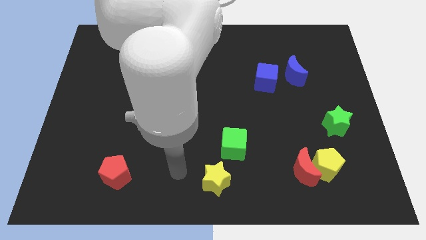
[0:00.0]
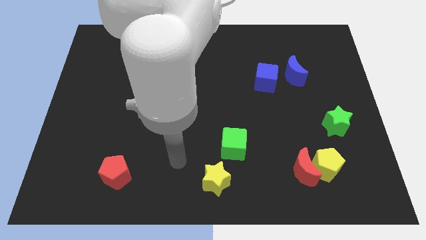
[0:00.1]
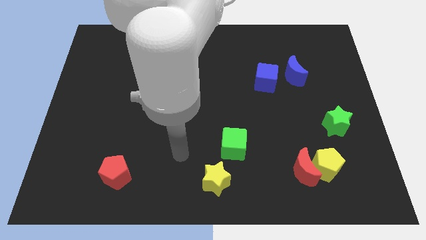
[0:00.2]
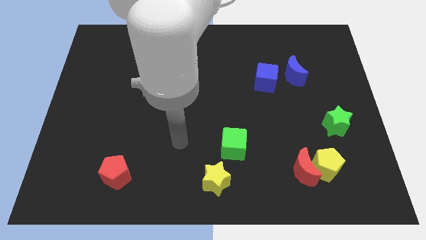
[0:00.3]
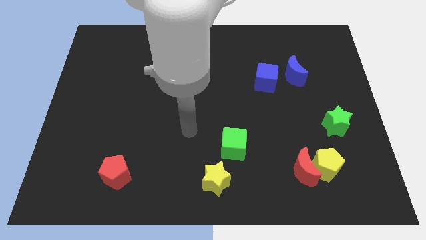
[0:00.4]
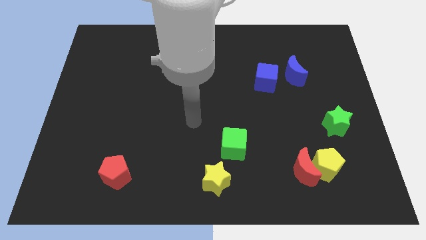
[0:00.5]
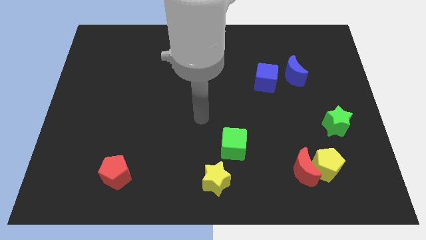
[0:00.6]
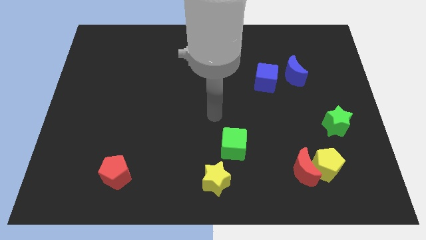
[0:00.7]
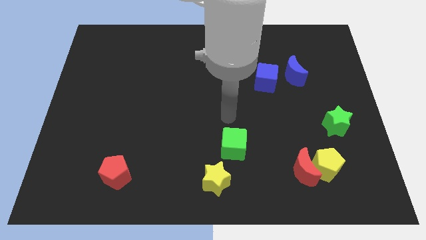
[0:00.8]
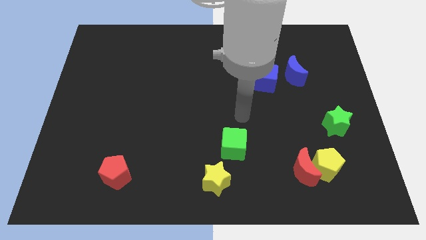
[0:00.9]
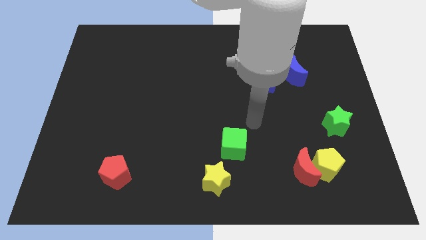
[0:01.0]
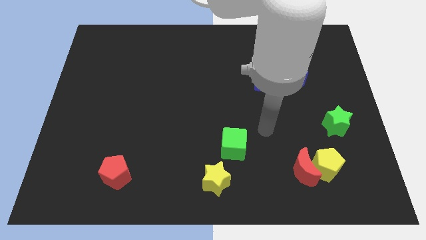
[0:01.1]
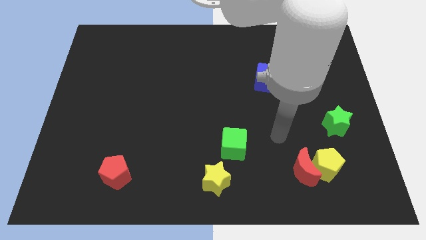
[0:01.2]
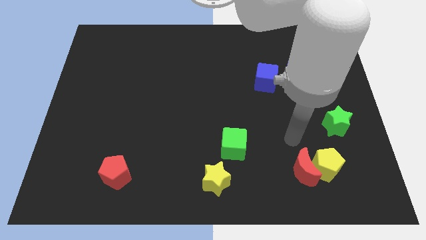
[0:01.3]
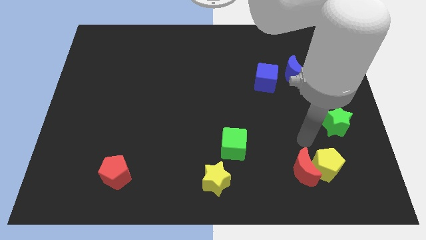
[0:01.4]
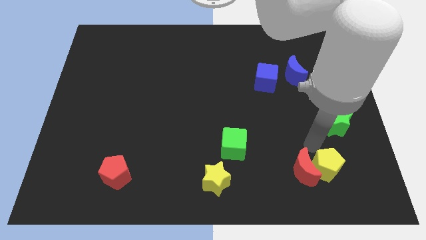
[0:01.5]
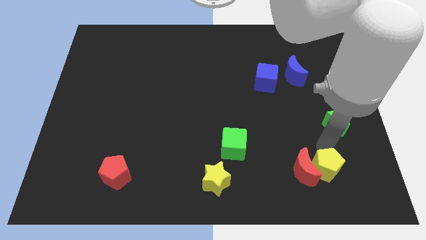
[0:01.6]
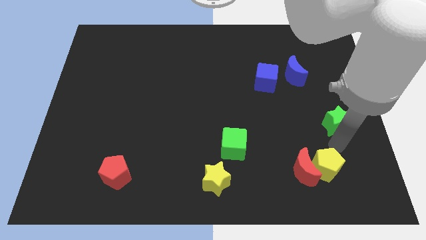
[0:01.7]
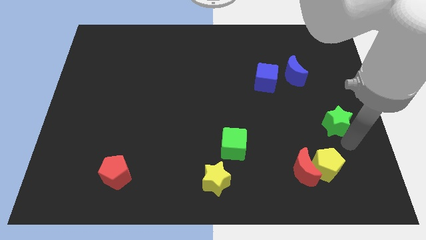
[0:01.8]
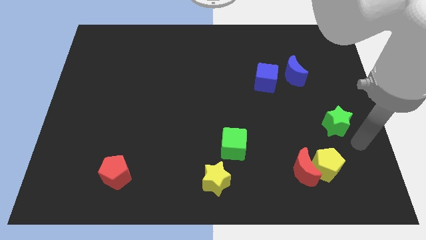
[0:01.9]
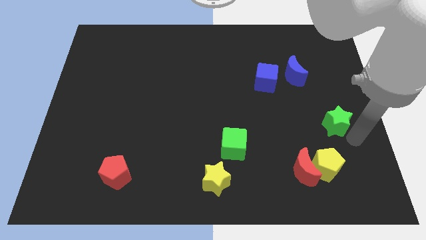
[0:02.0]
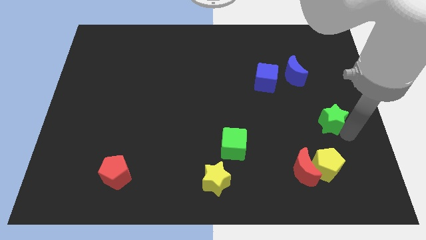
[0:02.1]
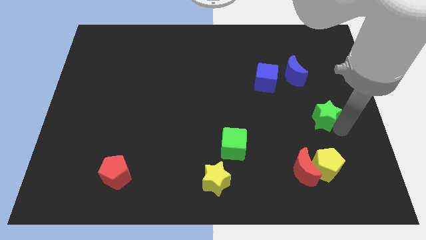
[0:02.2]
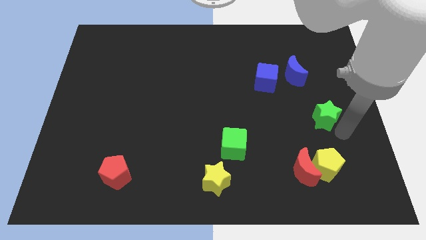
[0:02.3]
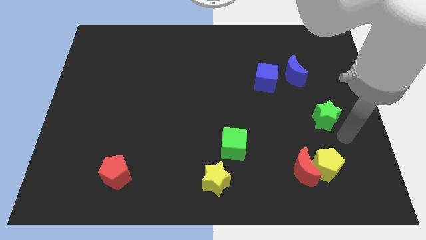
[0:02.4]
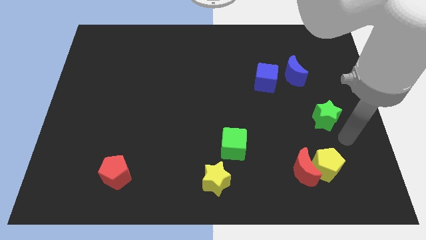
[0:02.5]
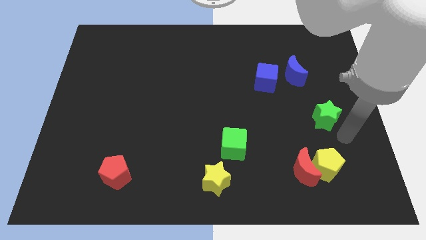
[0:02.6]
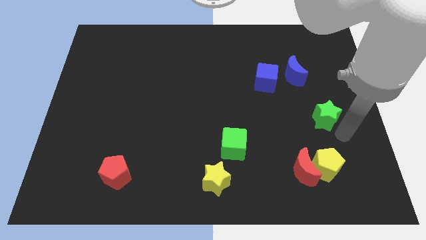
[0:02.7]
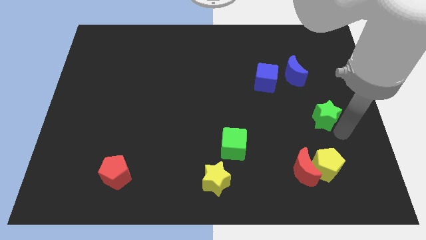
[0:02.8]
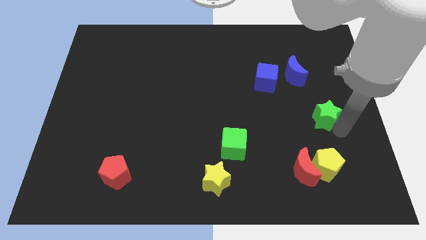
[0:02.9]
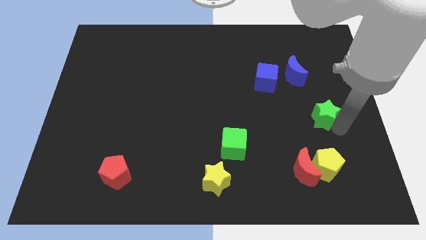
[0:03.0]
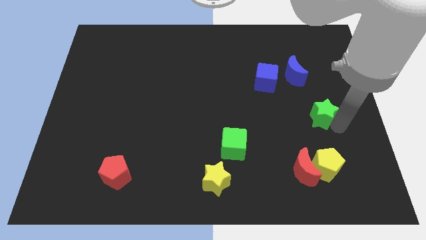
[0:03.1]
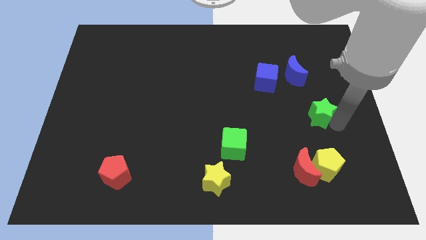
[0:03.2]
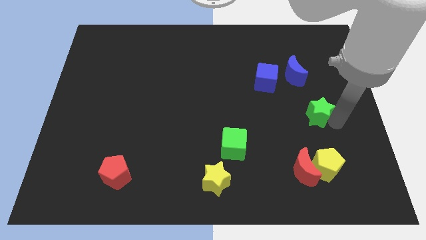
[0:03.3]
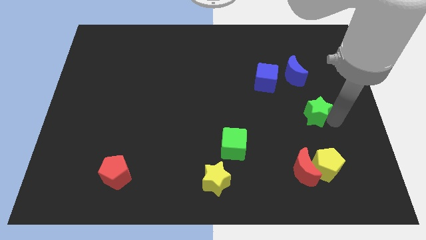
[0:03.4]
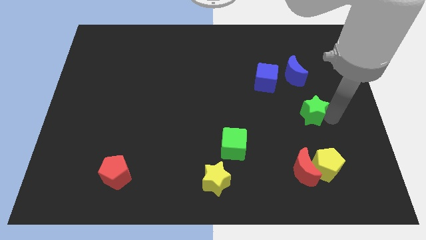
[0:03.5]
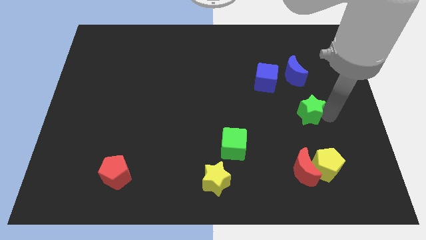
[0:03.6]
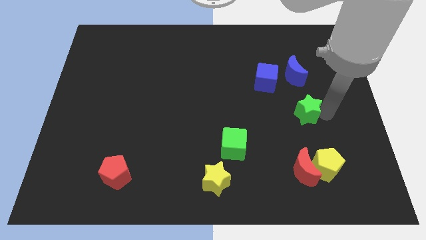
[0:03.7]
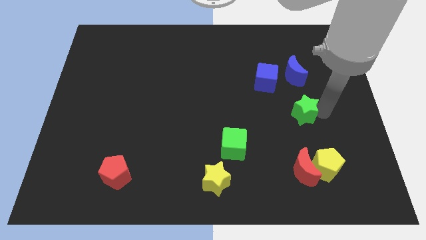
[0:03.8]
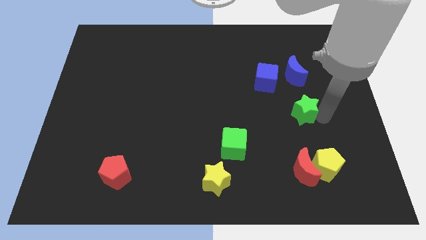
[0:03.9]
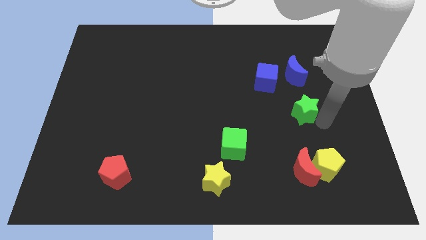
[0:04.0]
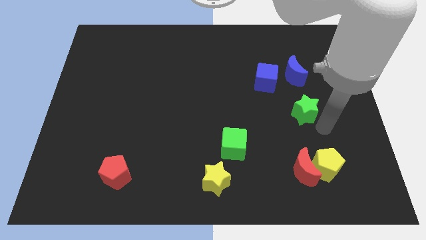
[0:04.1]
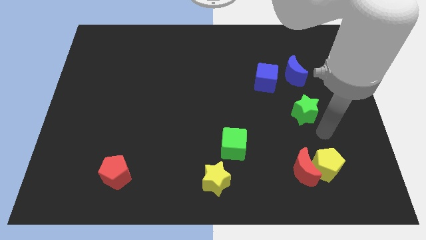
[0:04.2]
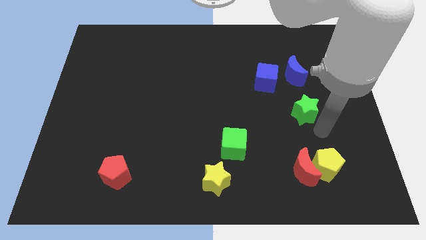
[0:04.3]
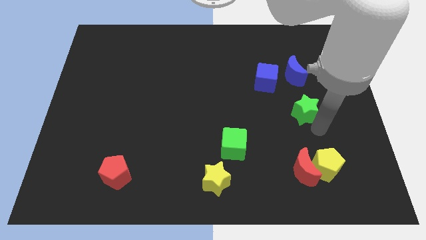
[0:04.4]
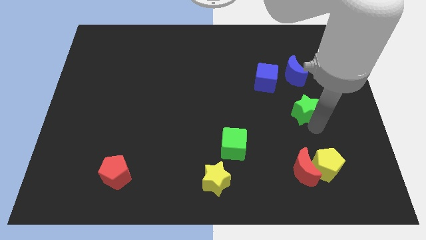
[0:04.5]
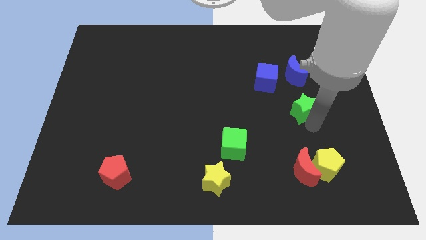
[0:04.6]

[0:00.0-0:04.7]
move the green star diagonally down and to the right of the blue cube

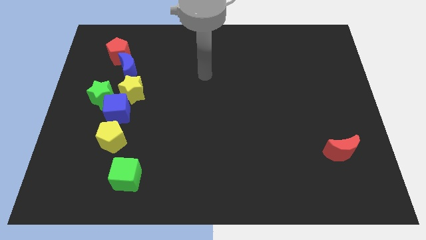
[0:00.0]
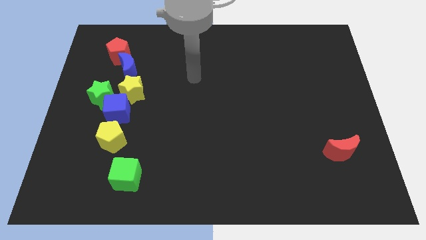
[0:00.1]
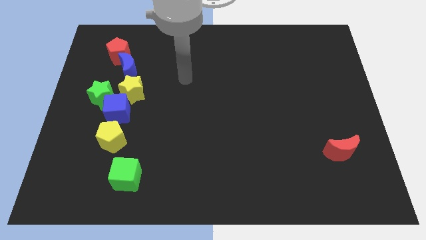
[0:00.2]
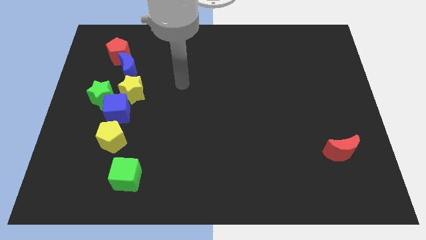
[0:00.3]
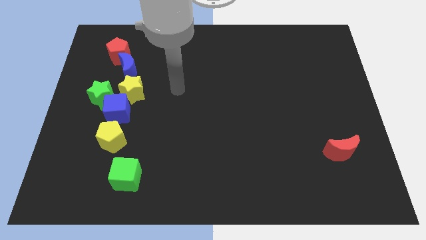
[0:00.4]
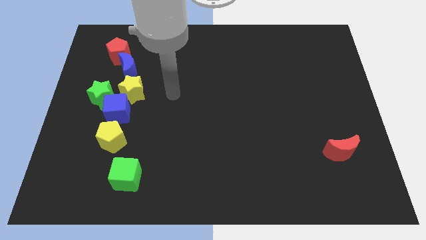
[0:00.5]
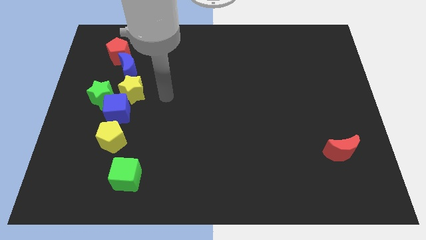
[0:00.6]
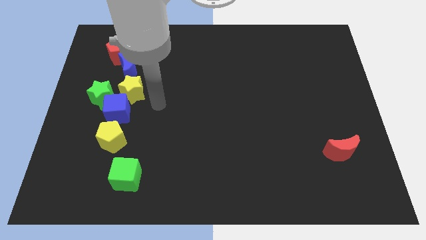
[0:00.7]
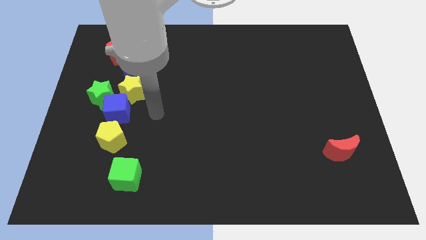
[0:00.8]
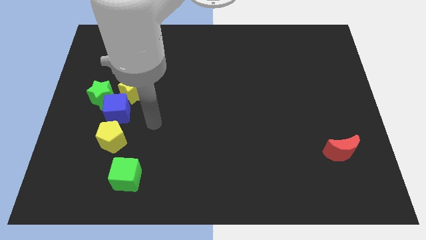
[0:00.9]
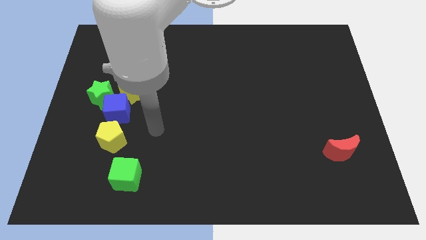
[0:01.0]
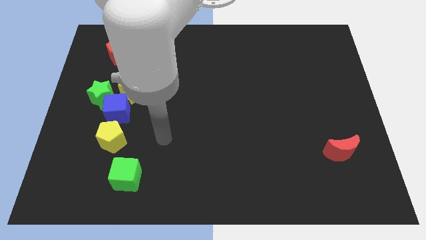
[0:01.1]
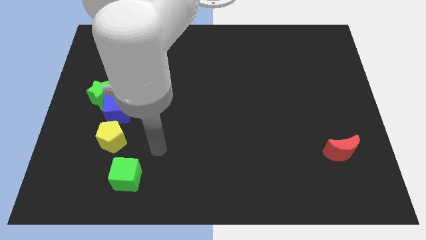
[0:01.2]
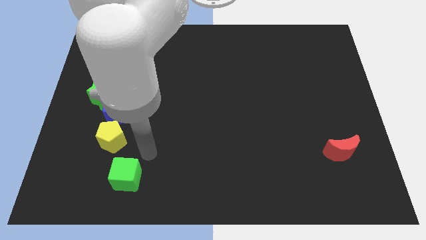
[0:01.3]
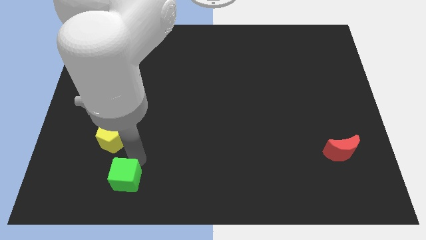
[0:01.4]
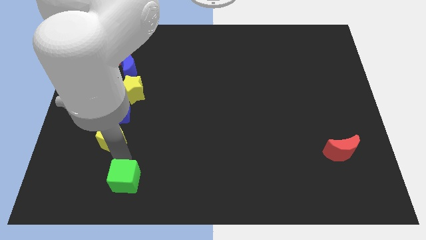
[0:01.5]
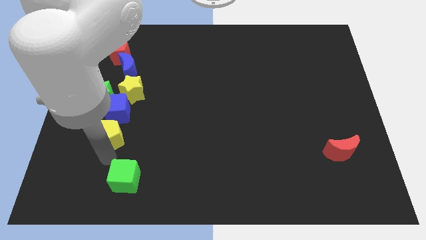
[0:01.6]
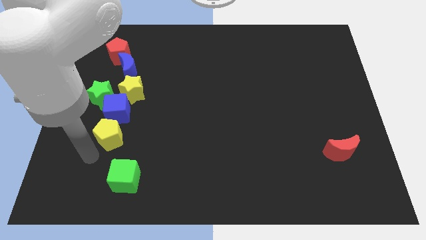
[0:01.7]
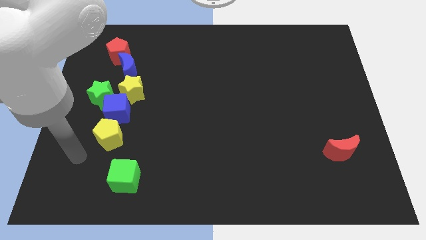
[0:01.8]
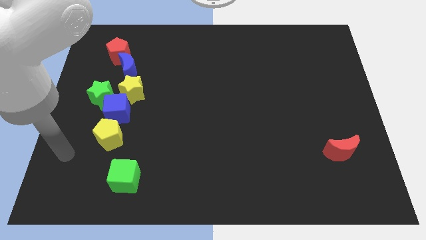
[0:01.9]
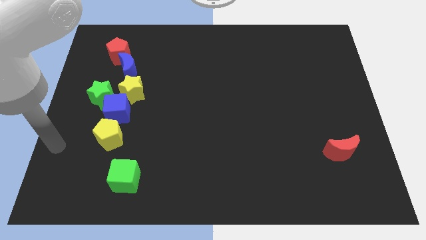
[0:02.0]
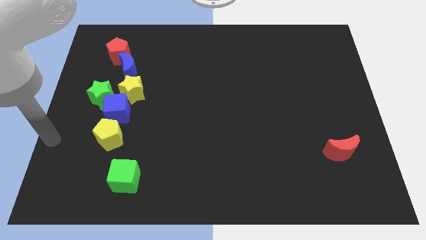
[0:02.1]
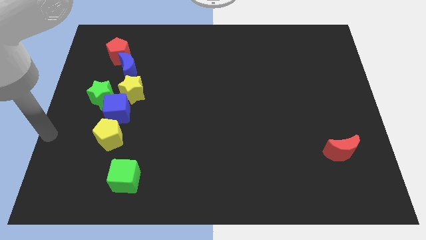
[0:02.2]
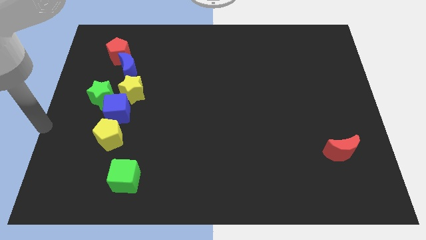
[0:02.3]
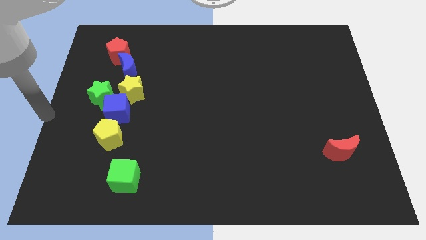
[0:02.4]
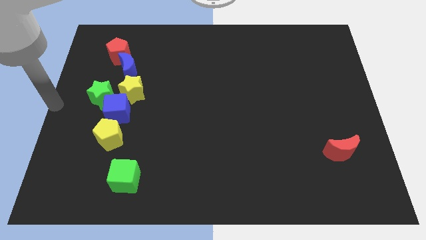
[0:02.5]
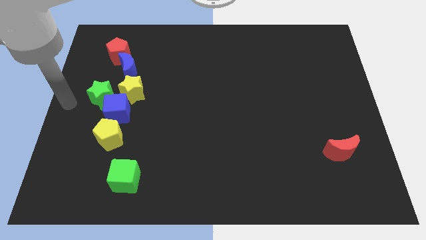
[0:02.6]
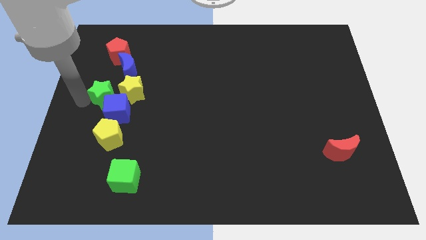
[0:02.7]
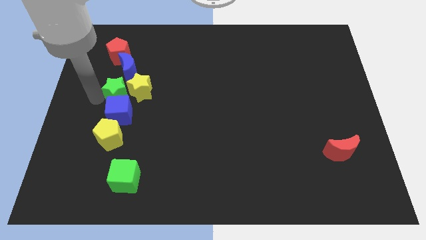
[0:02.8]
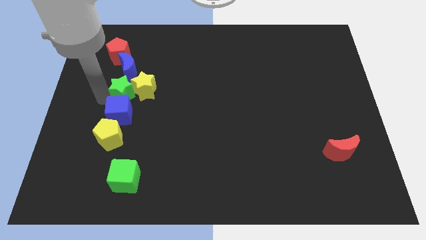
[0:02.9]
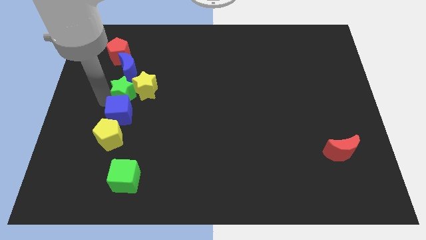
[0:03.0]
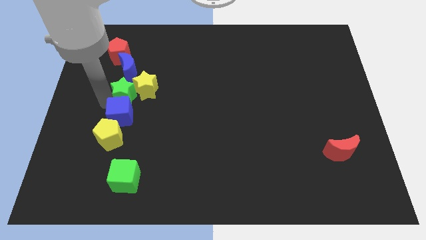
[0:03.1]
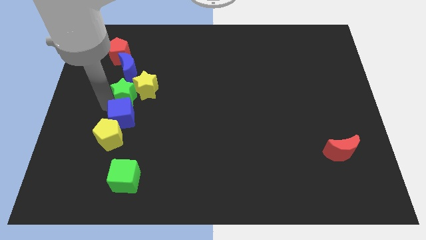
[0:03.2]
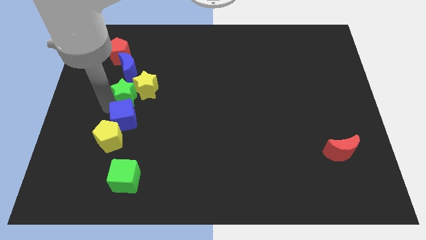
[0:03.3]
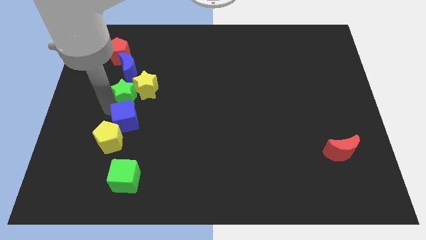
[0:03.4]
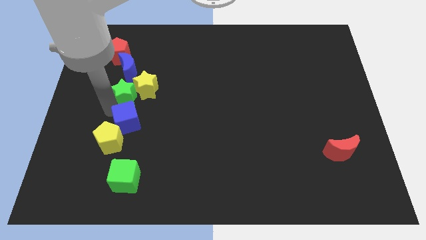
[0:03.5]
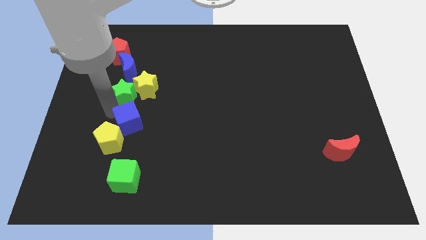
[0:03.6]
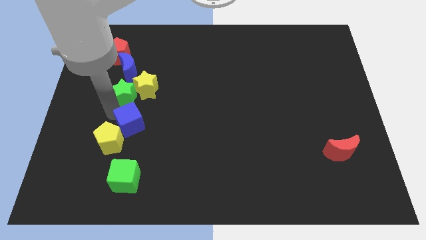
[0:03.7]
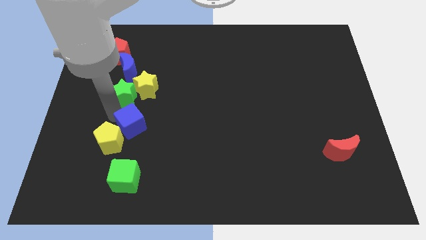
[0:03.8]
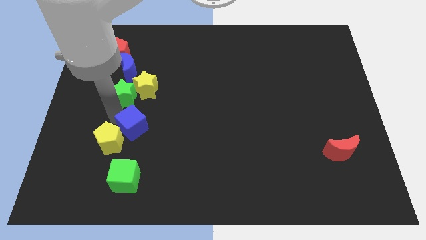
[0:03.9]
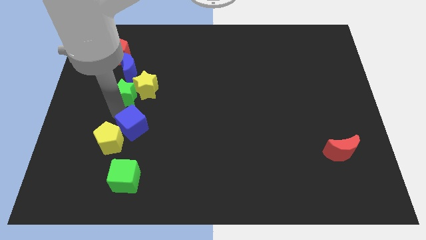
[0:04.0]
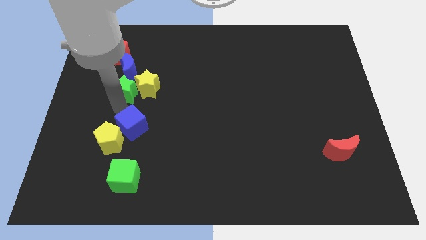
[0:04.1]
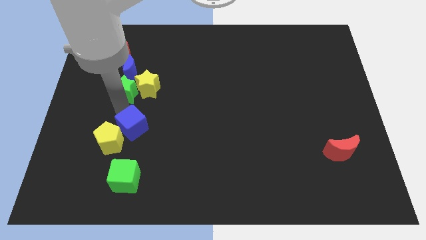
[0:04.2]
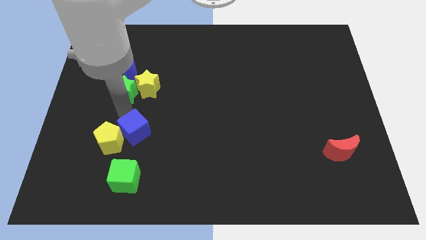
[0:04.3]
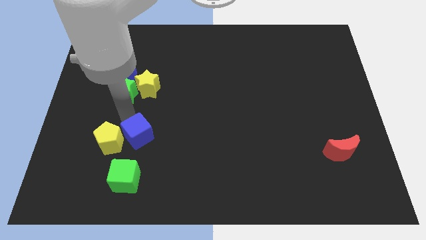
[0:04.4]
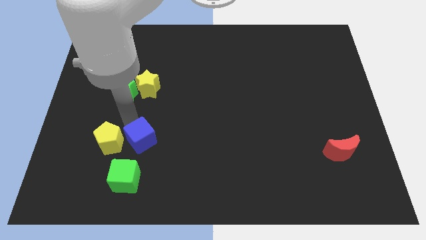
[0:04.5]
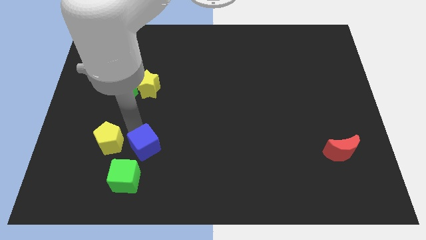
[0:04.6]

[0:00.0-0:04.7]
move the blue cube to the top right side of the green cube
